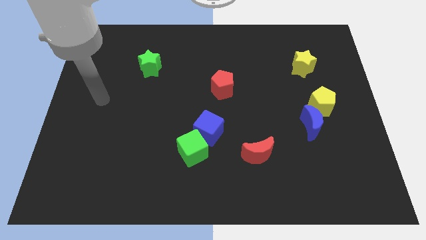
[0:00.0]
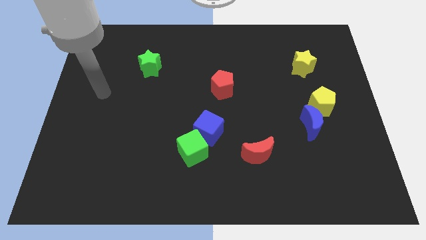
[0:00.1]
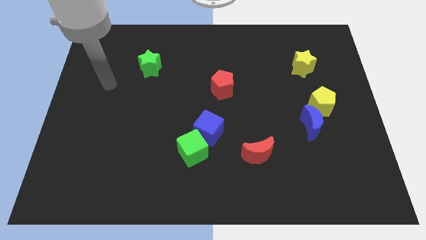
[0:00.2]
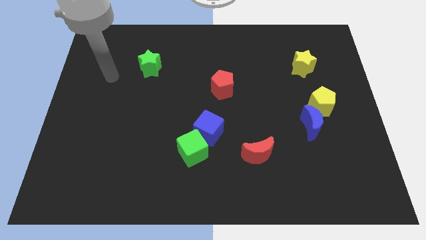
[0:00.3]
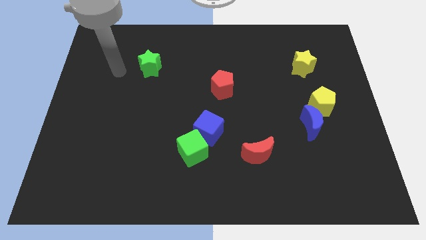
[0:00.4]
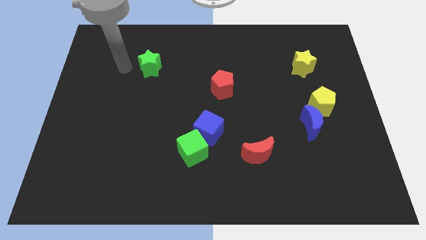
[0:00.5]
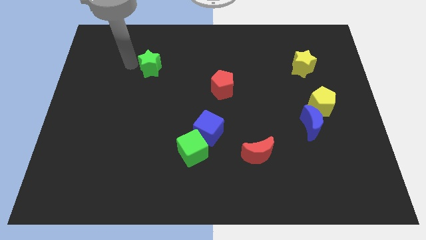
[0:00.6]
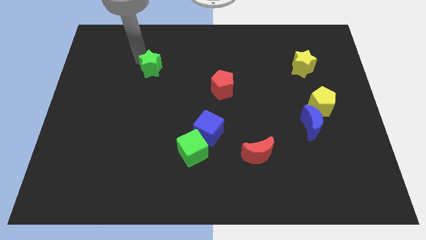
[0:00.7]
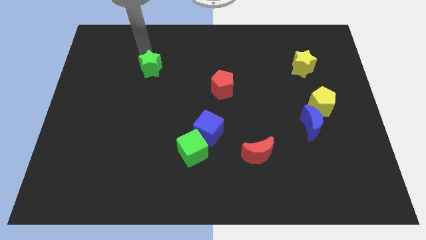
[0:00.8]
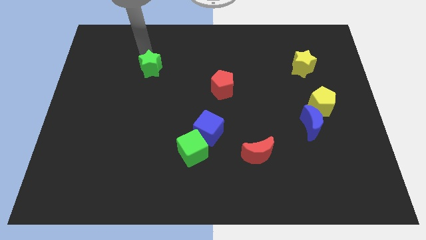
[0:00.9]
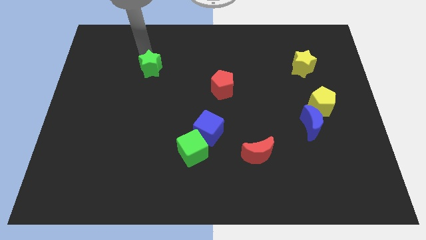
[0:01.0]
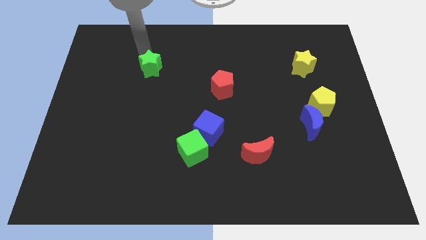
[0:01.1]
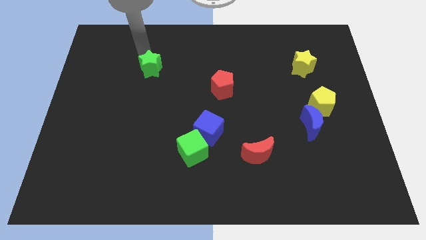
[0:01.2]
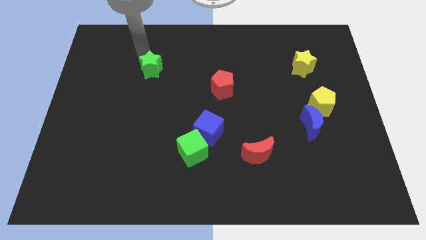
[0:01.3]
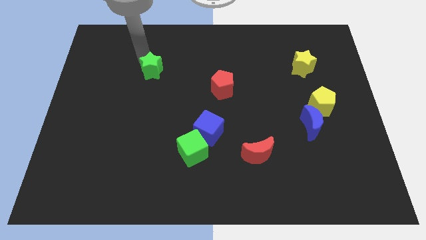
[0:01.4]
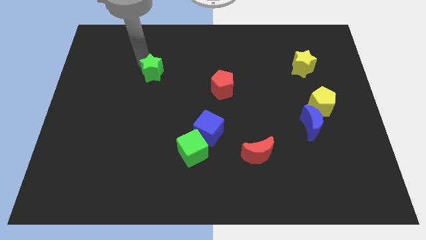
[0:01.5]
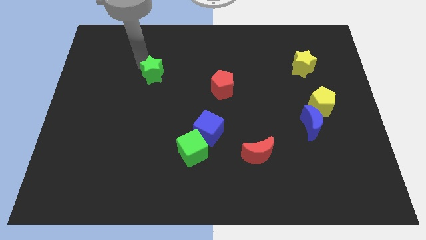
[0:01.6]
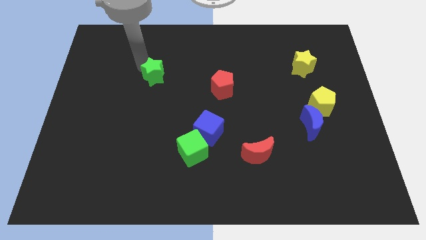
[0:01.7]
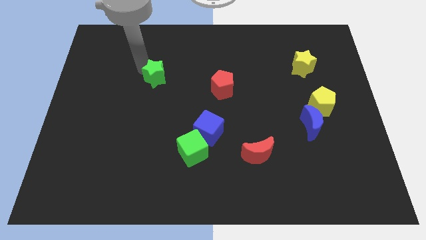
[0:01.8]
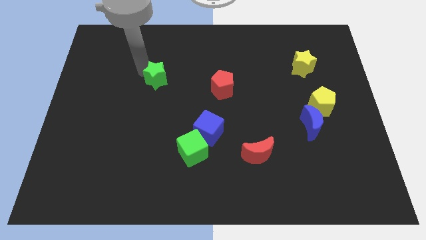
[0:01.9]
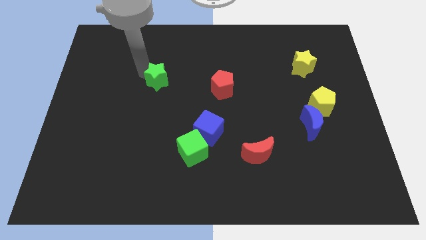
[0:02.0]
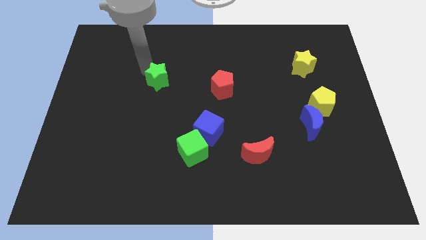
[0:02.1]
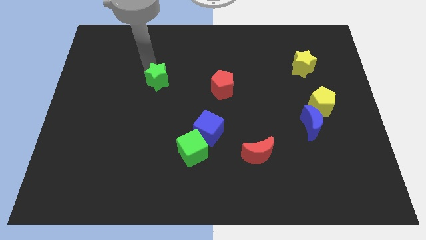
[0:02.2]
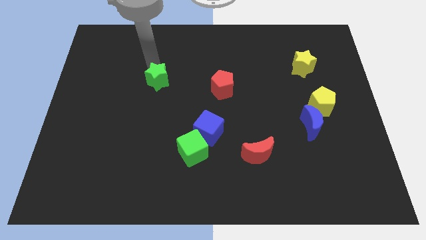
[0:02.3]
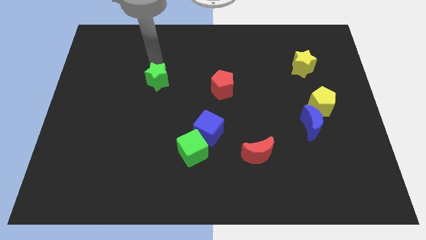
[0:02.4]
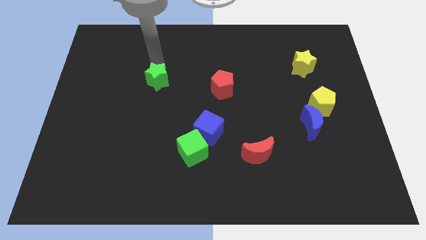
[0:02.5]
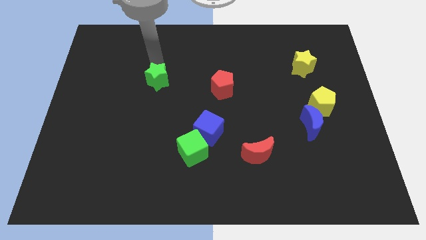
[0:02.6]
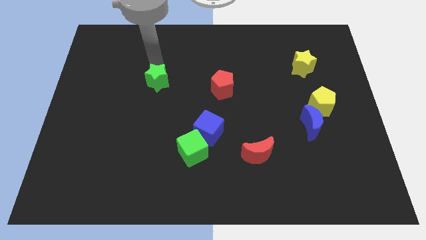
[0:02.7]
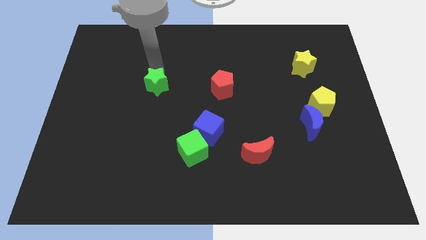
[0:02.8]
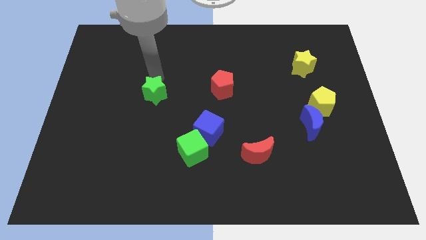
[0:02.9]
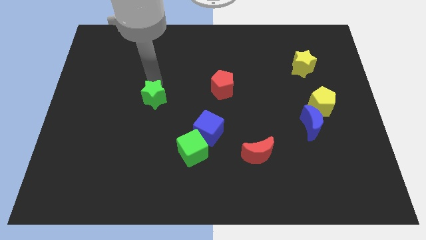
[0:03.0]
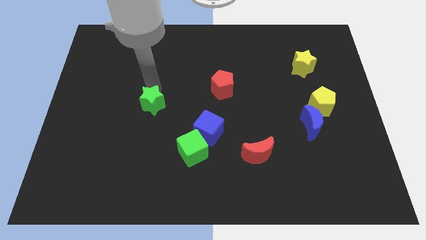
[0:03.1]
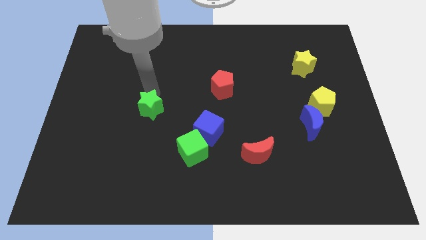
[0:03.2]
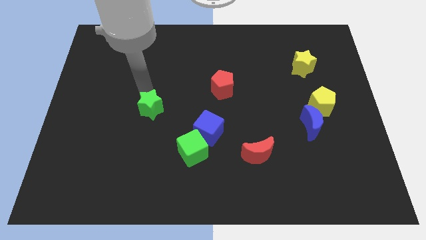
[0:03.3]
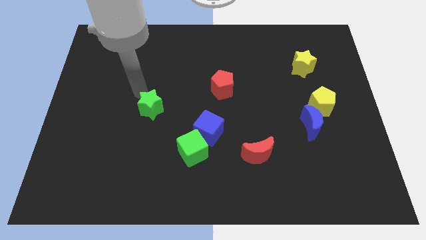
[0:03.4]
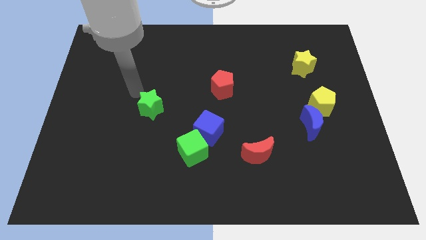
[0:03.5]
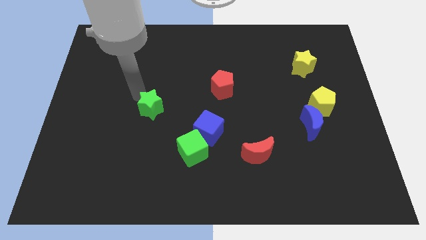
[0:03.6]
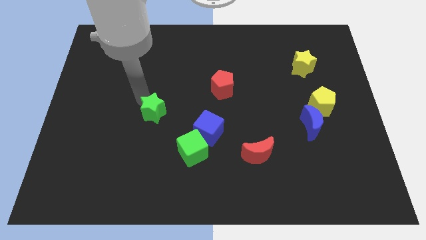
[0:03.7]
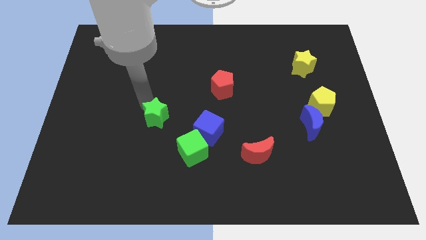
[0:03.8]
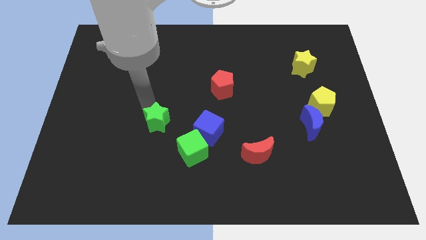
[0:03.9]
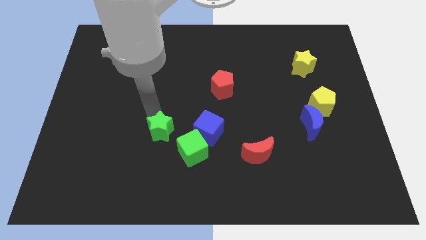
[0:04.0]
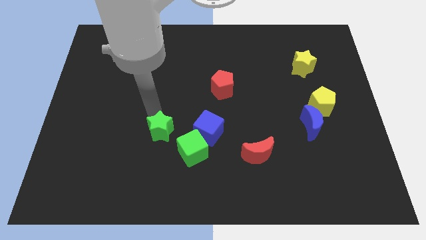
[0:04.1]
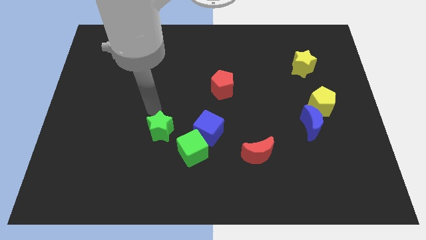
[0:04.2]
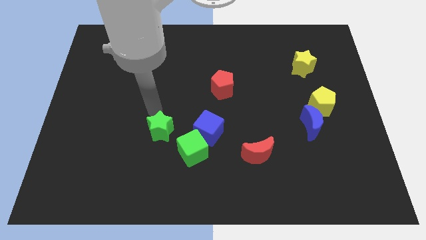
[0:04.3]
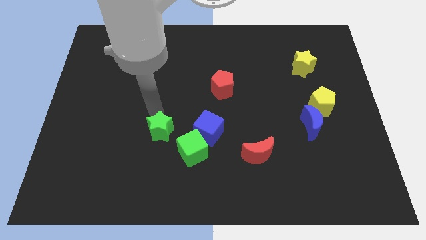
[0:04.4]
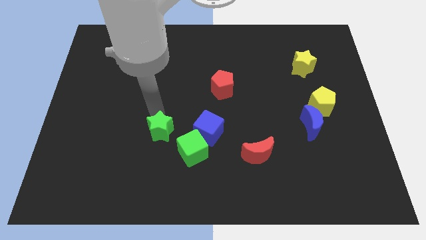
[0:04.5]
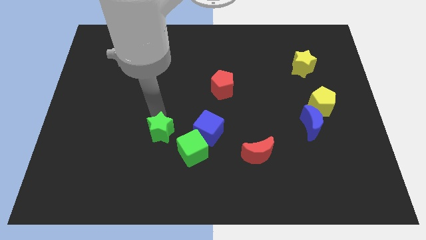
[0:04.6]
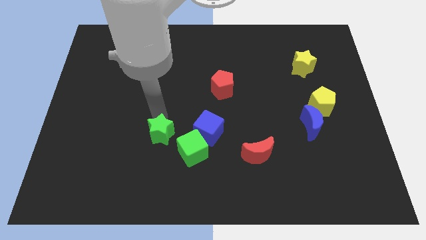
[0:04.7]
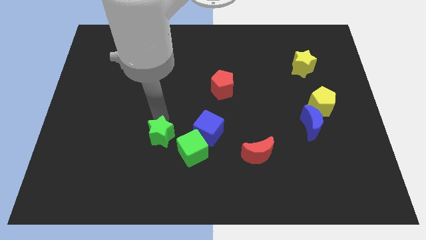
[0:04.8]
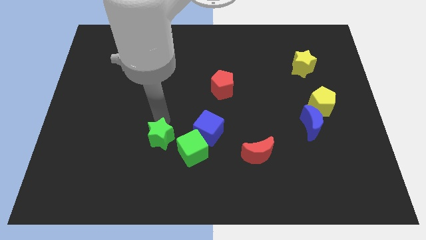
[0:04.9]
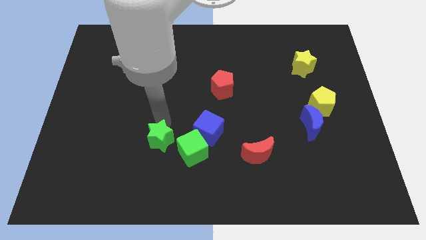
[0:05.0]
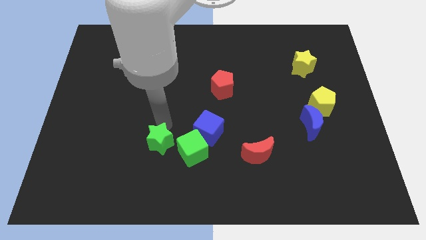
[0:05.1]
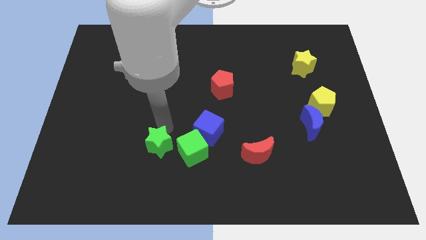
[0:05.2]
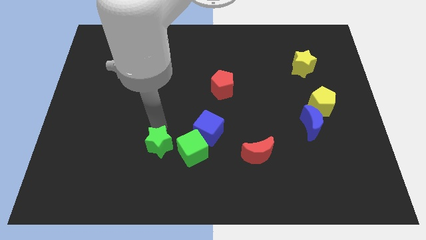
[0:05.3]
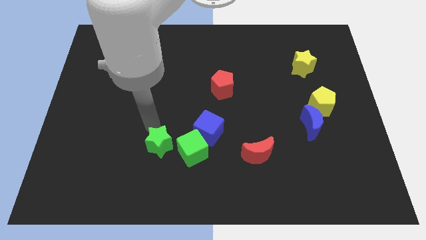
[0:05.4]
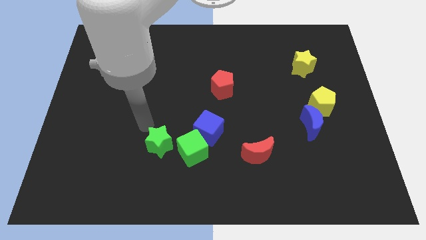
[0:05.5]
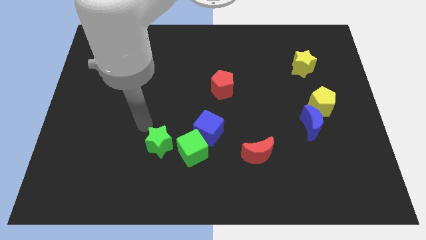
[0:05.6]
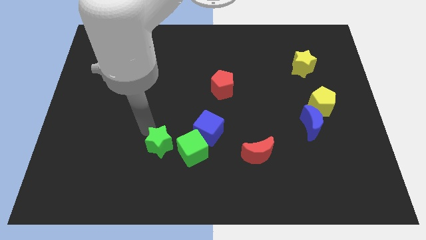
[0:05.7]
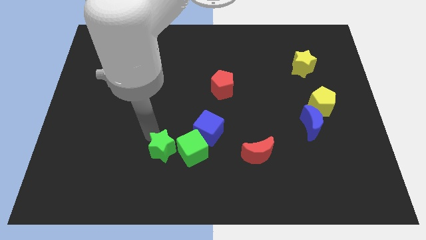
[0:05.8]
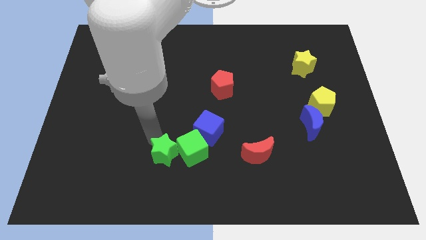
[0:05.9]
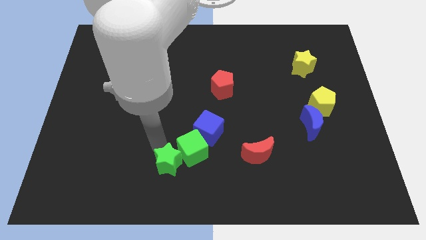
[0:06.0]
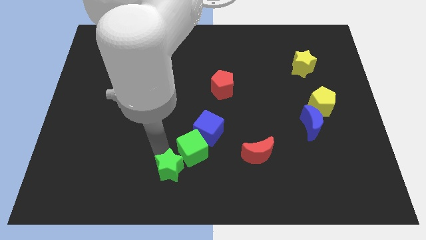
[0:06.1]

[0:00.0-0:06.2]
put the green star to the bottom side

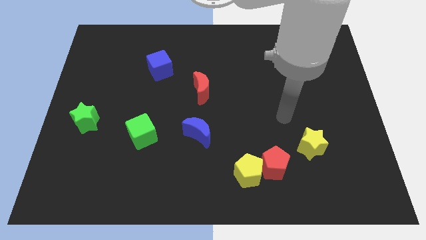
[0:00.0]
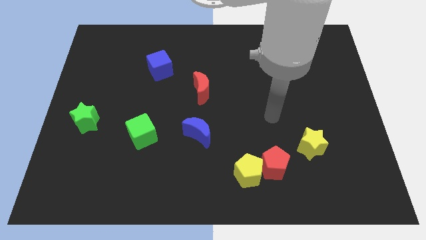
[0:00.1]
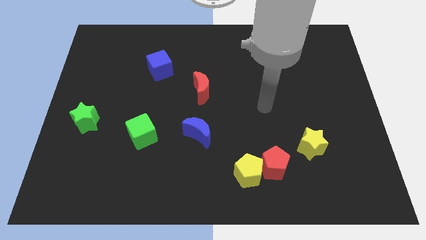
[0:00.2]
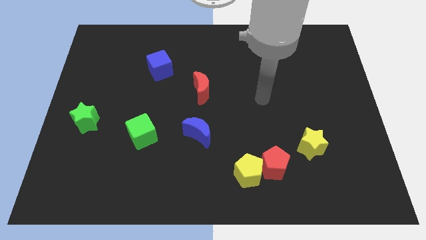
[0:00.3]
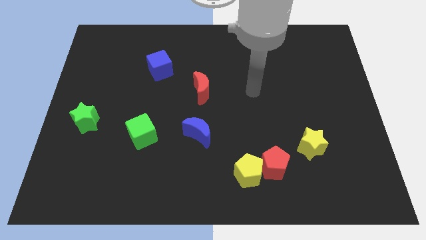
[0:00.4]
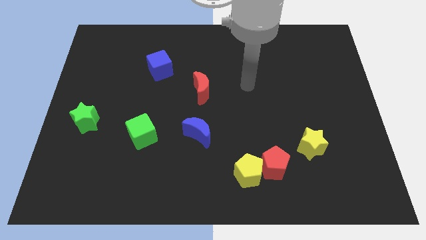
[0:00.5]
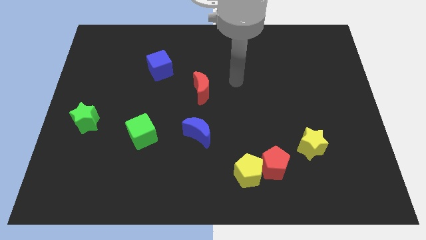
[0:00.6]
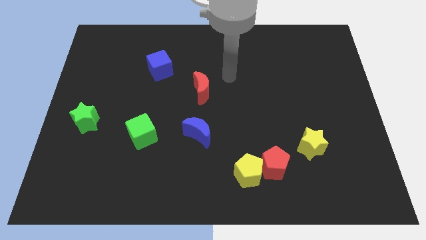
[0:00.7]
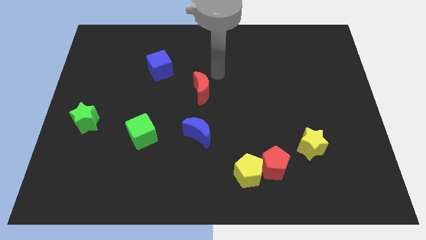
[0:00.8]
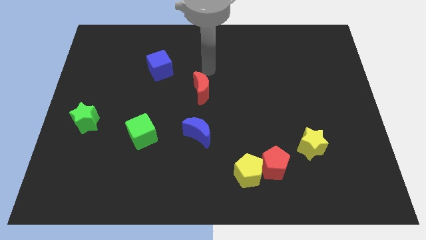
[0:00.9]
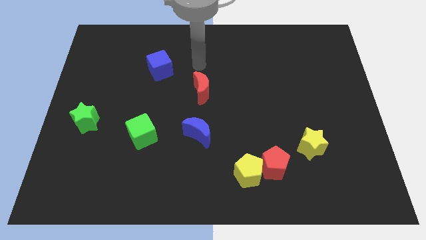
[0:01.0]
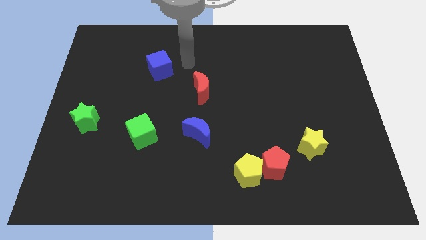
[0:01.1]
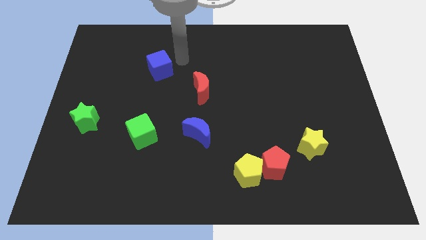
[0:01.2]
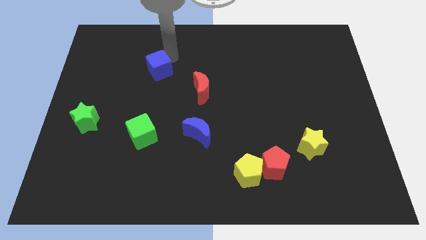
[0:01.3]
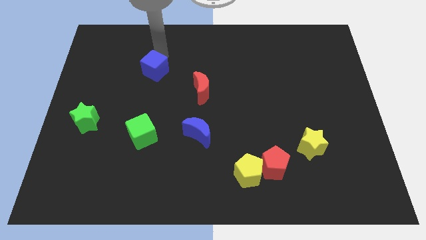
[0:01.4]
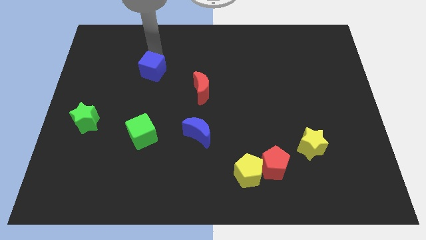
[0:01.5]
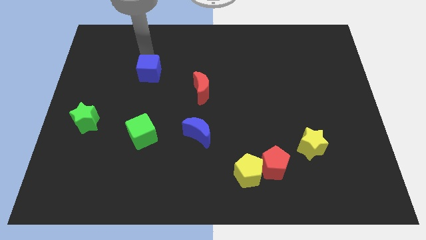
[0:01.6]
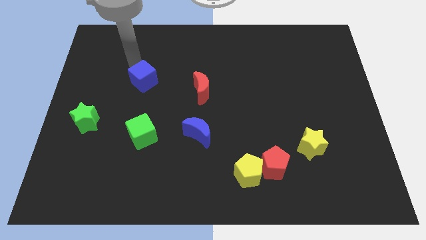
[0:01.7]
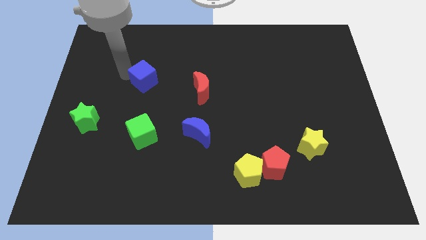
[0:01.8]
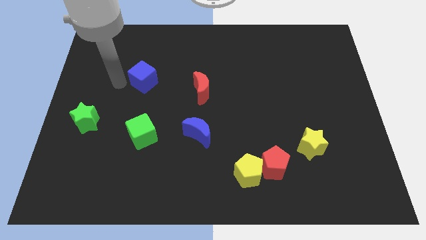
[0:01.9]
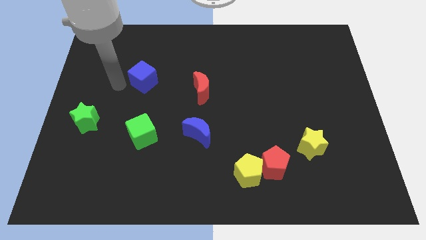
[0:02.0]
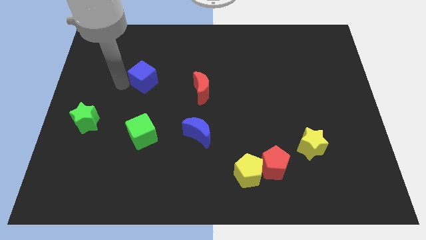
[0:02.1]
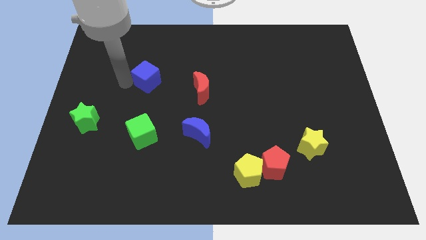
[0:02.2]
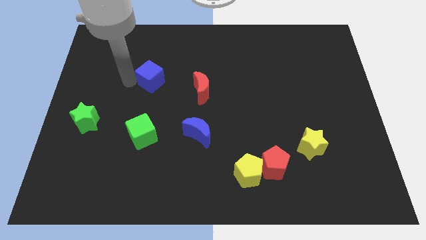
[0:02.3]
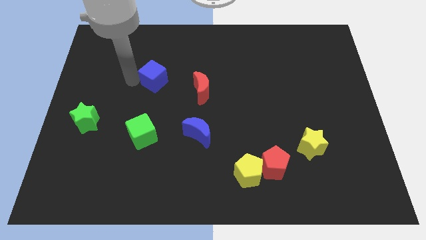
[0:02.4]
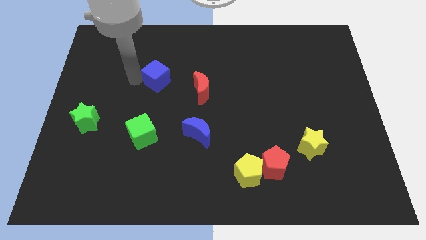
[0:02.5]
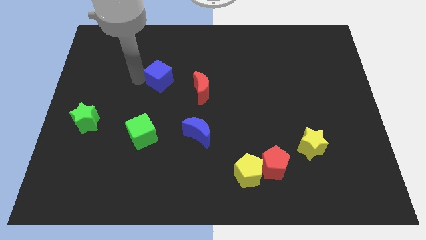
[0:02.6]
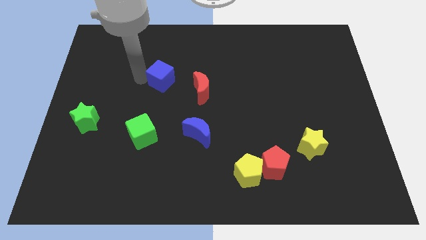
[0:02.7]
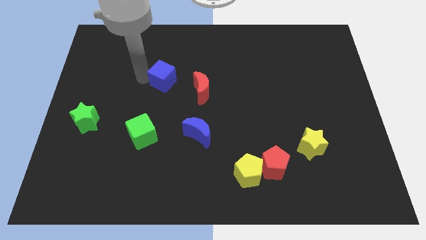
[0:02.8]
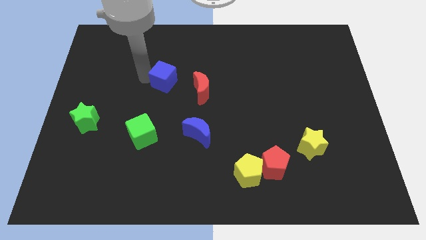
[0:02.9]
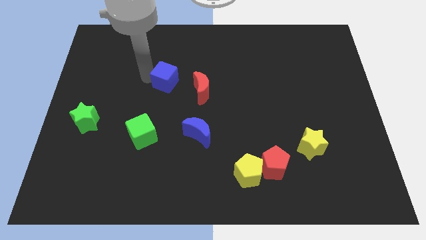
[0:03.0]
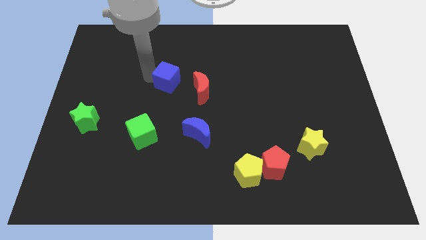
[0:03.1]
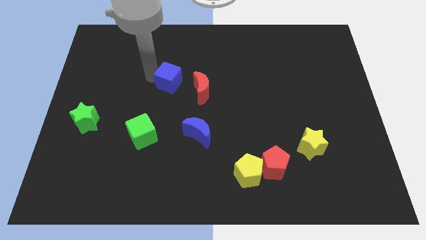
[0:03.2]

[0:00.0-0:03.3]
slide the blue cube to the center
